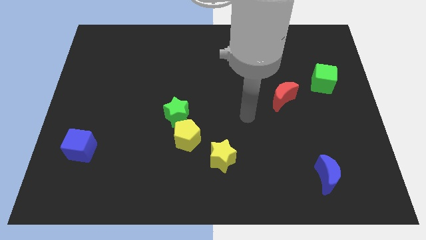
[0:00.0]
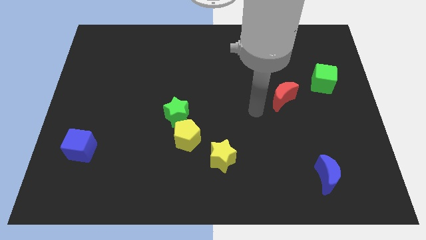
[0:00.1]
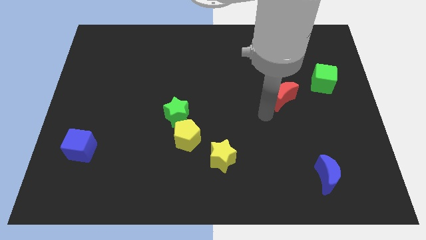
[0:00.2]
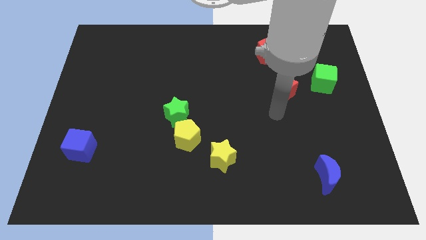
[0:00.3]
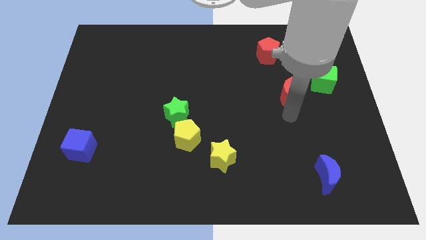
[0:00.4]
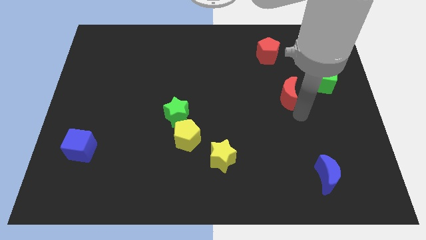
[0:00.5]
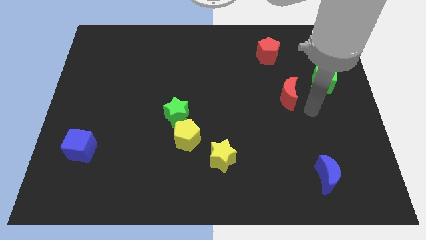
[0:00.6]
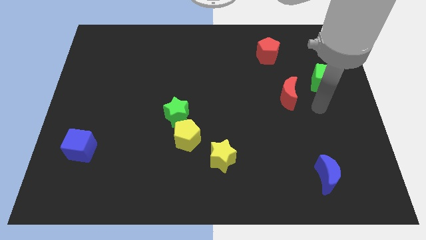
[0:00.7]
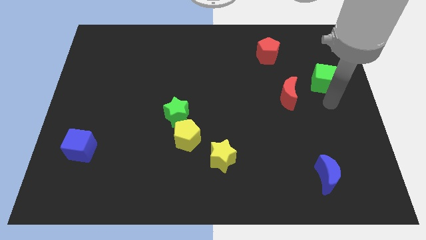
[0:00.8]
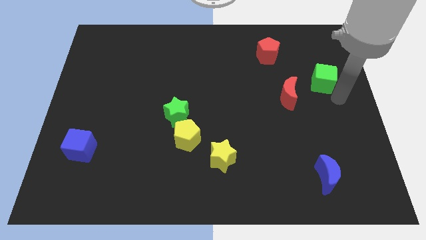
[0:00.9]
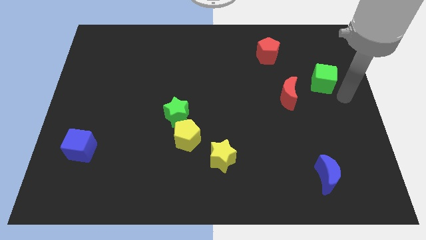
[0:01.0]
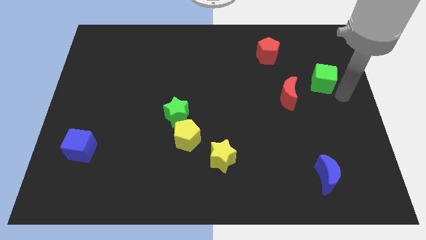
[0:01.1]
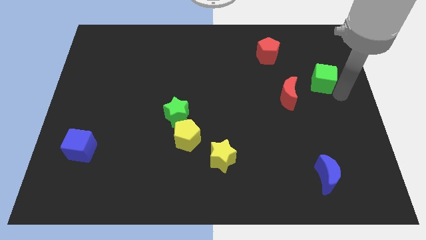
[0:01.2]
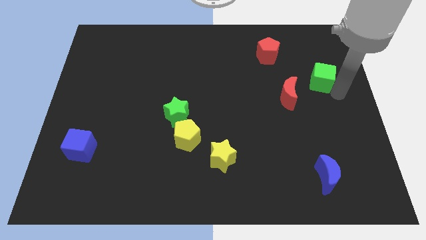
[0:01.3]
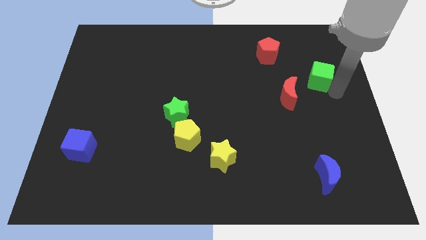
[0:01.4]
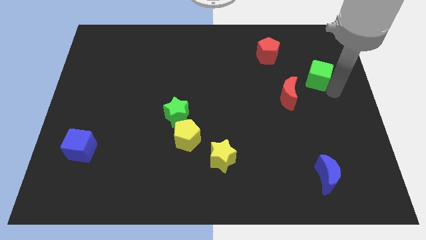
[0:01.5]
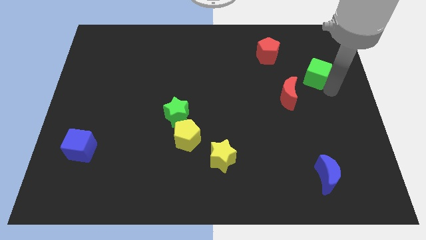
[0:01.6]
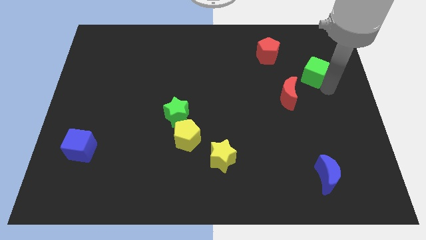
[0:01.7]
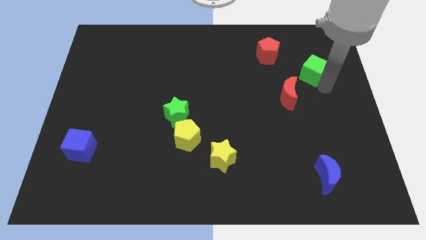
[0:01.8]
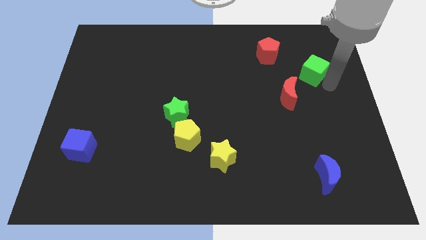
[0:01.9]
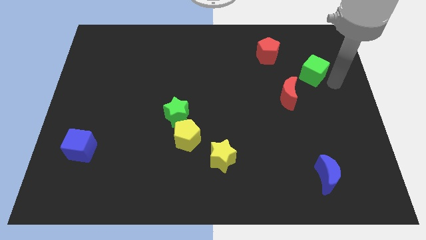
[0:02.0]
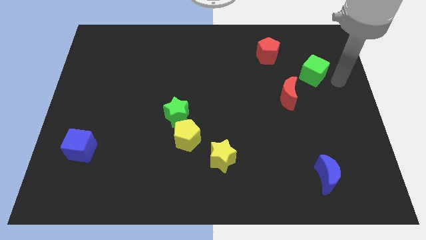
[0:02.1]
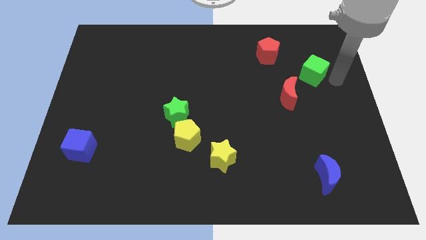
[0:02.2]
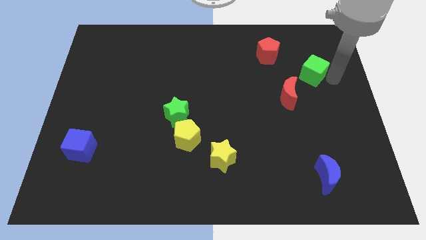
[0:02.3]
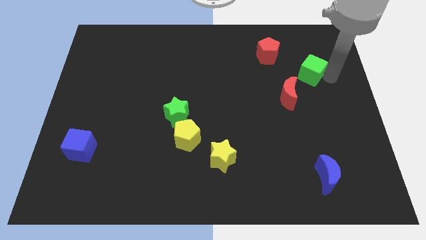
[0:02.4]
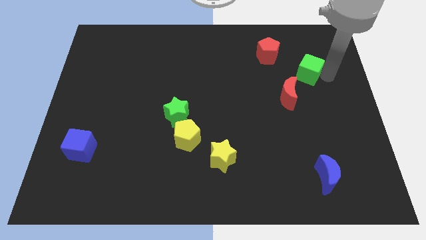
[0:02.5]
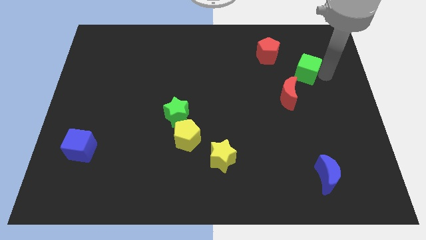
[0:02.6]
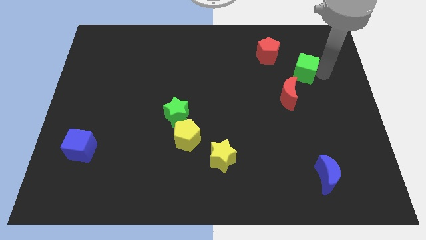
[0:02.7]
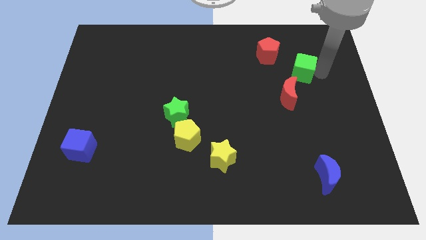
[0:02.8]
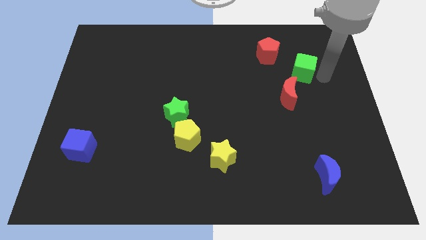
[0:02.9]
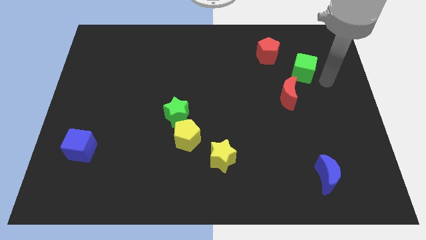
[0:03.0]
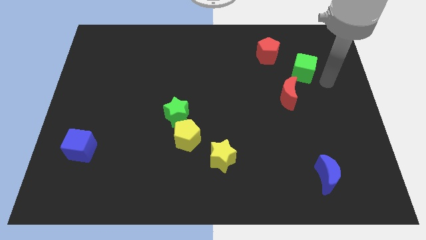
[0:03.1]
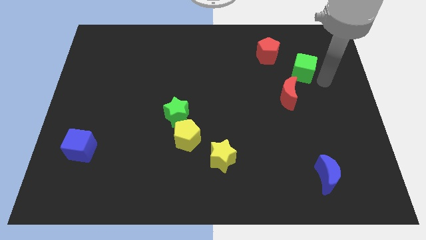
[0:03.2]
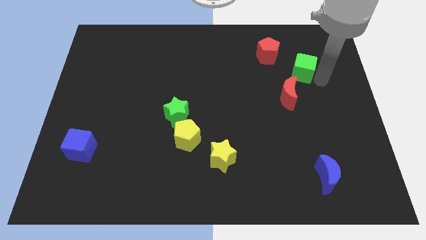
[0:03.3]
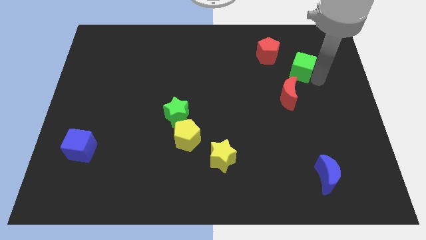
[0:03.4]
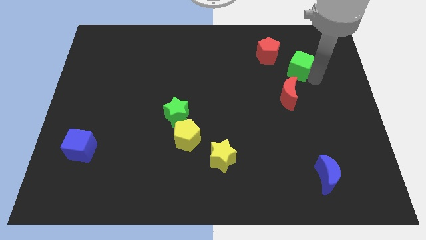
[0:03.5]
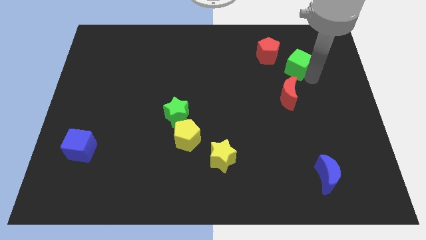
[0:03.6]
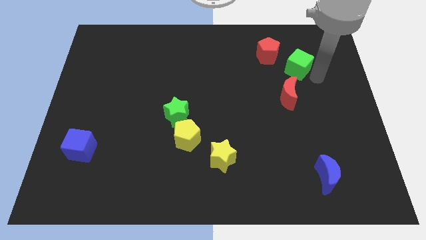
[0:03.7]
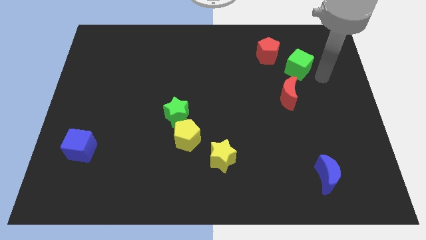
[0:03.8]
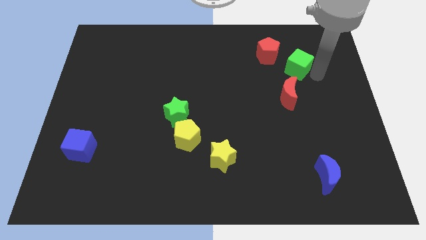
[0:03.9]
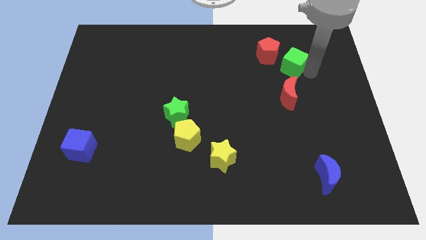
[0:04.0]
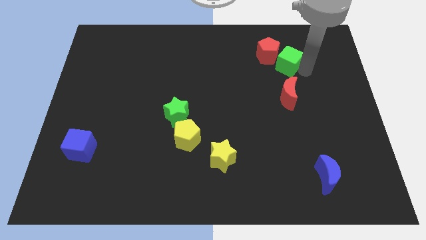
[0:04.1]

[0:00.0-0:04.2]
slide the green cube towards the red pentagon

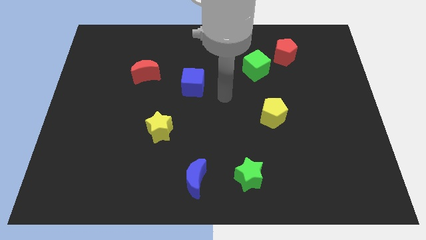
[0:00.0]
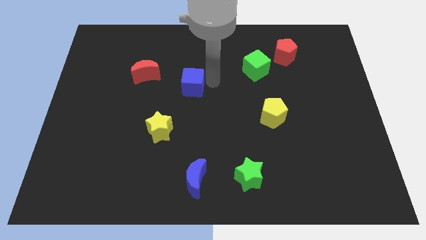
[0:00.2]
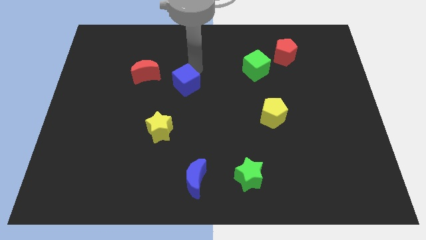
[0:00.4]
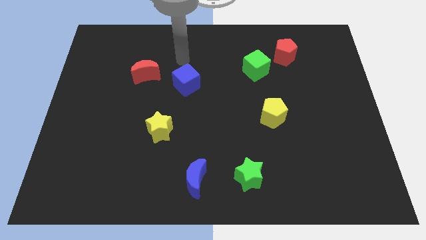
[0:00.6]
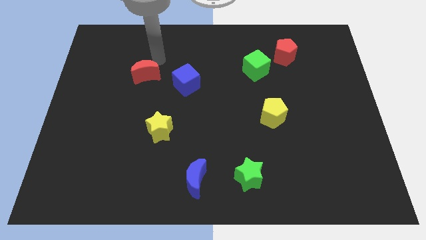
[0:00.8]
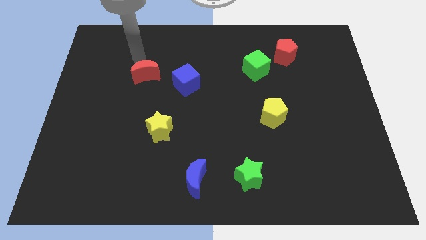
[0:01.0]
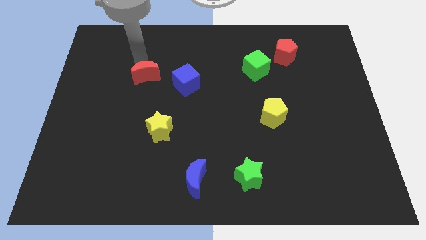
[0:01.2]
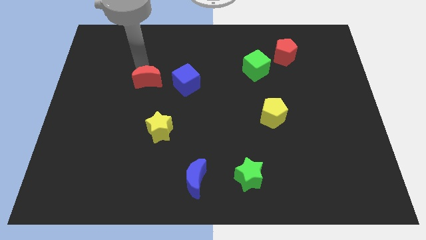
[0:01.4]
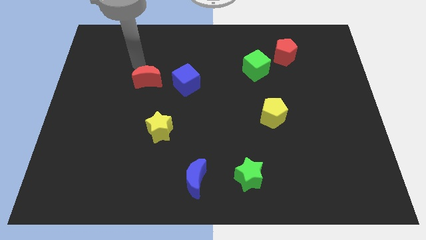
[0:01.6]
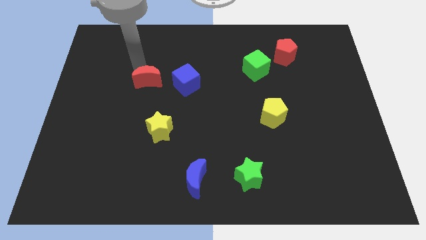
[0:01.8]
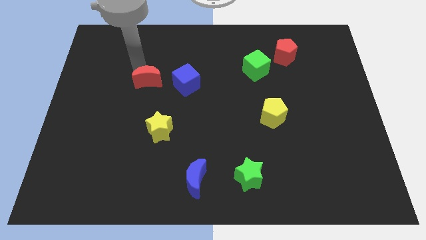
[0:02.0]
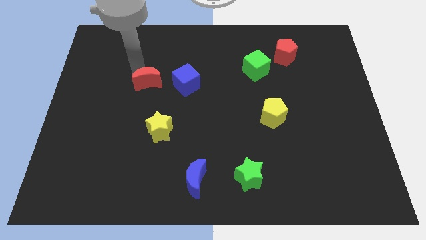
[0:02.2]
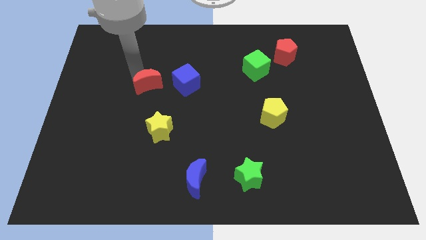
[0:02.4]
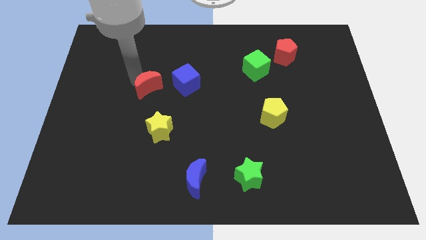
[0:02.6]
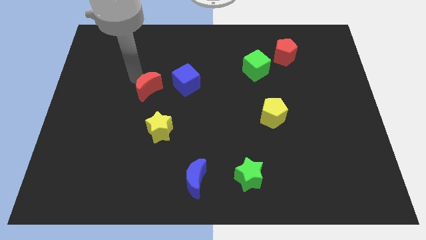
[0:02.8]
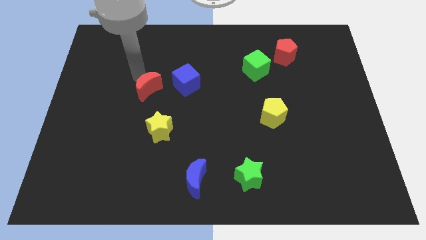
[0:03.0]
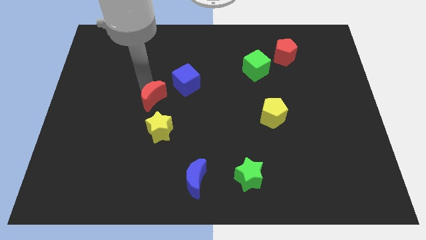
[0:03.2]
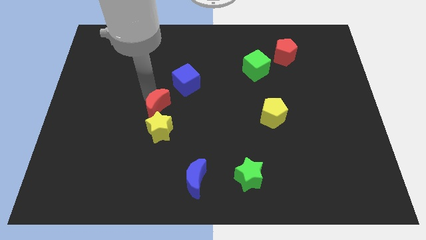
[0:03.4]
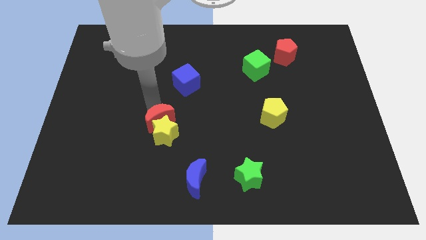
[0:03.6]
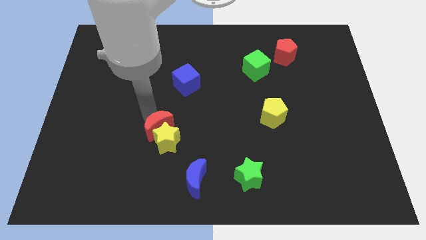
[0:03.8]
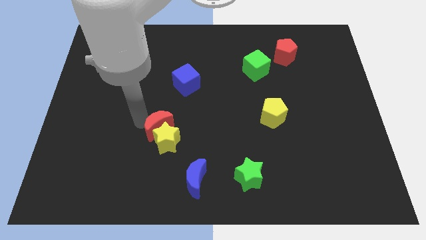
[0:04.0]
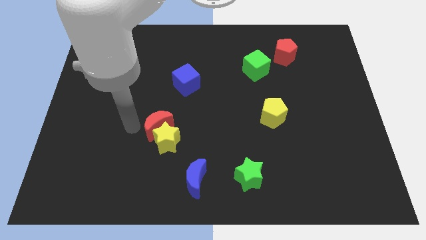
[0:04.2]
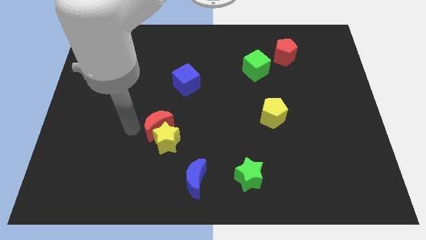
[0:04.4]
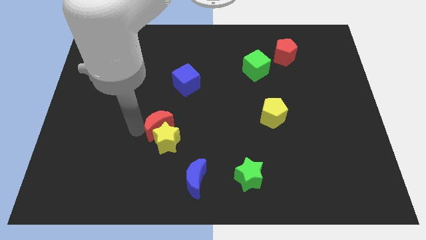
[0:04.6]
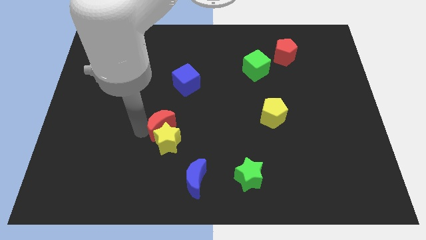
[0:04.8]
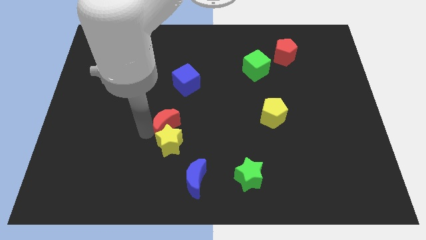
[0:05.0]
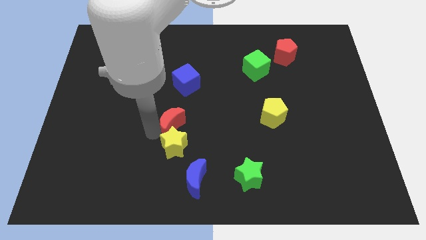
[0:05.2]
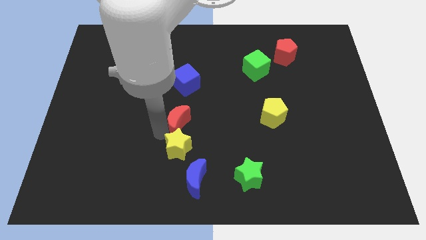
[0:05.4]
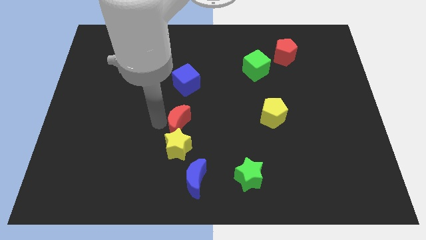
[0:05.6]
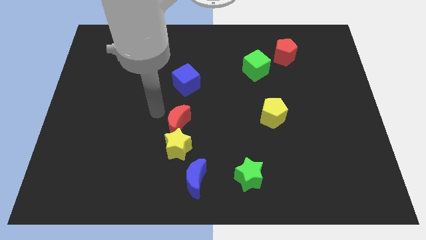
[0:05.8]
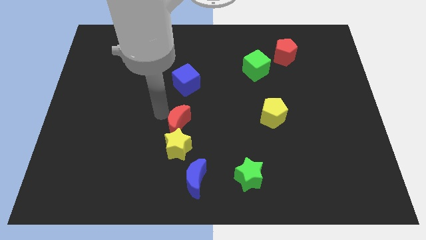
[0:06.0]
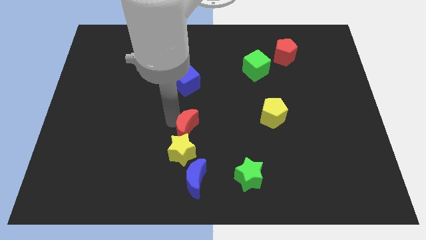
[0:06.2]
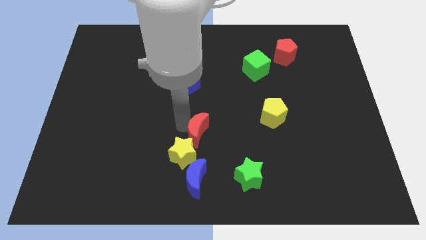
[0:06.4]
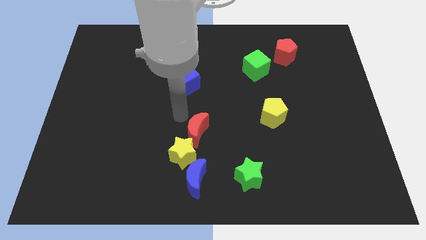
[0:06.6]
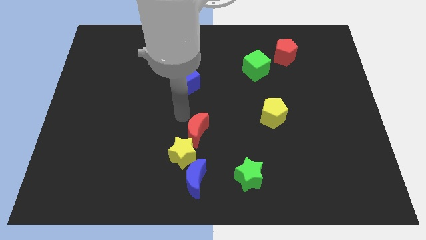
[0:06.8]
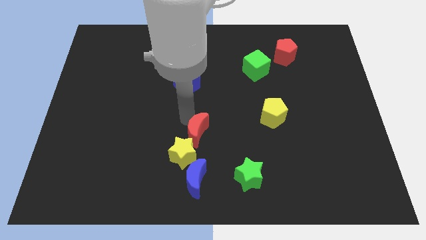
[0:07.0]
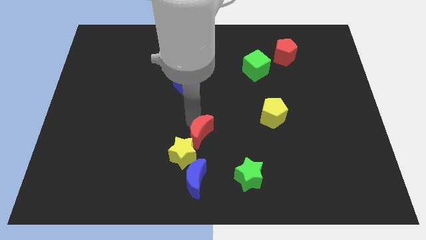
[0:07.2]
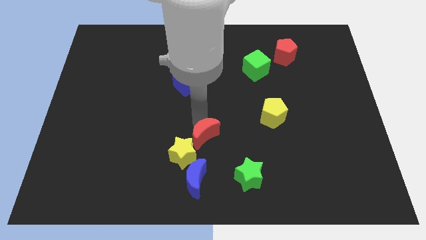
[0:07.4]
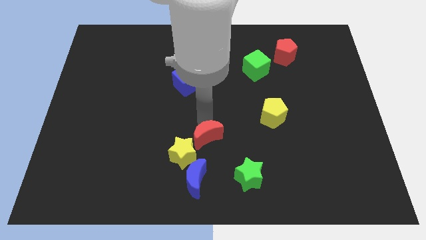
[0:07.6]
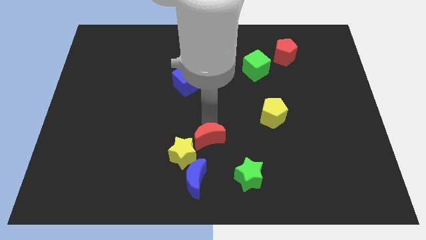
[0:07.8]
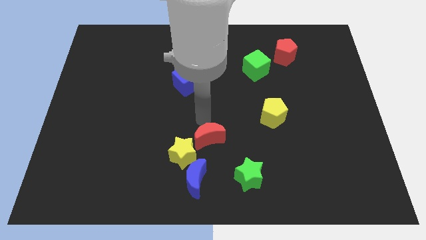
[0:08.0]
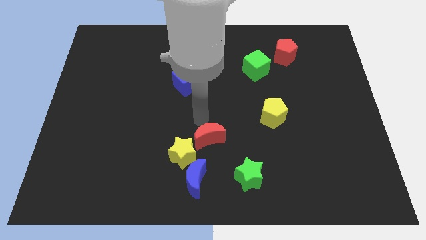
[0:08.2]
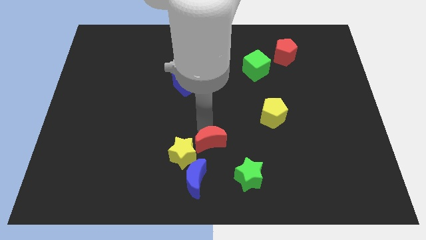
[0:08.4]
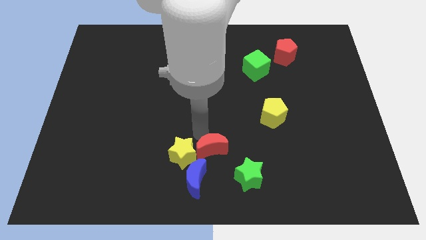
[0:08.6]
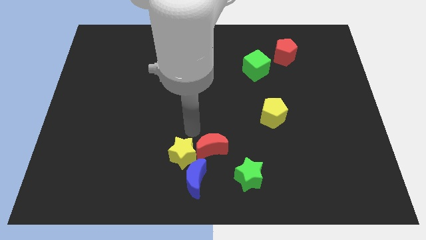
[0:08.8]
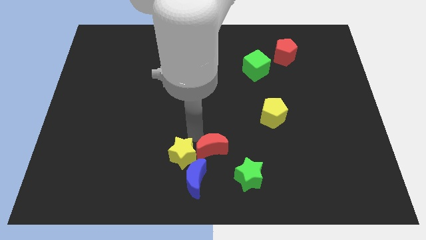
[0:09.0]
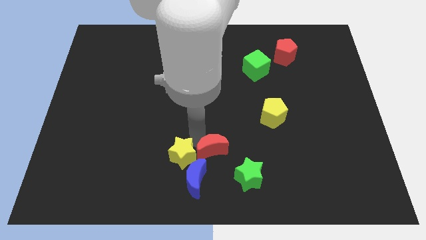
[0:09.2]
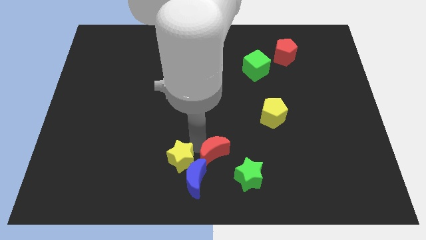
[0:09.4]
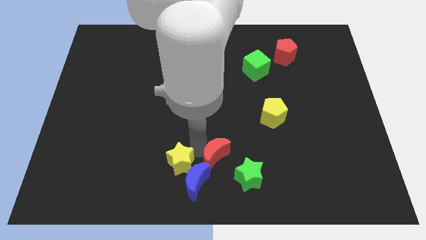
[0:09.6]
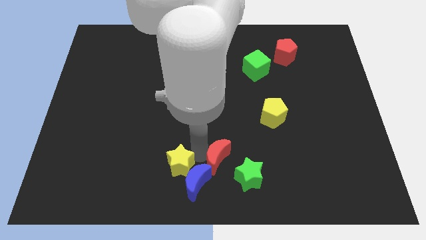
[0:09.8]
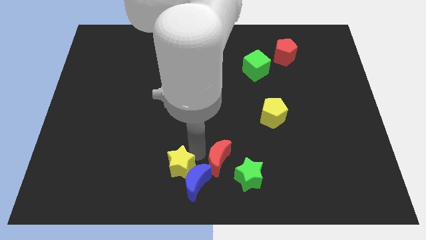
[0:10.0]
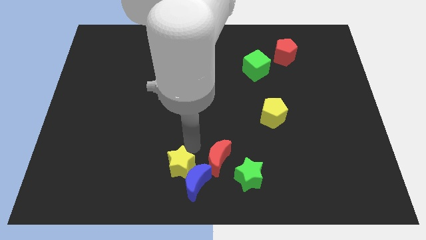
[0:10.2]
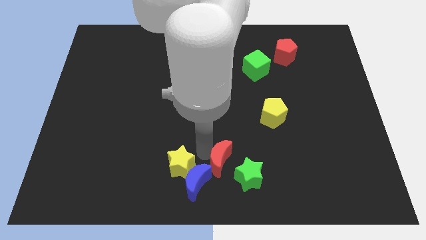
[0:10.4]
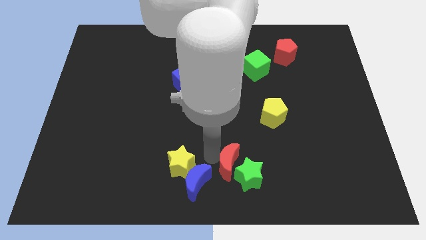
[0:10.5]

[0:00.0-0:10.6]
slide the red moon next to the green star
